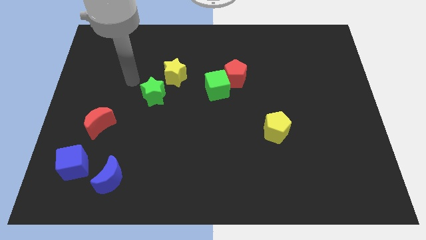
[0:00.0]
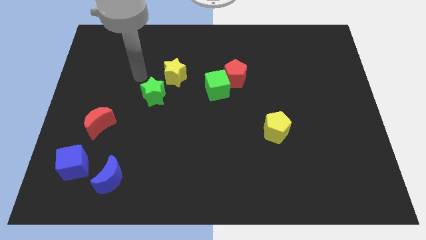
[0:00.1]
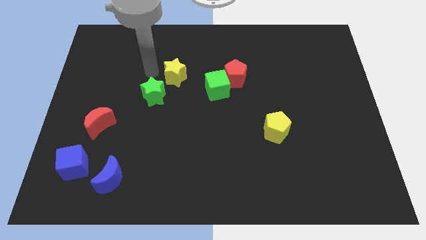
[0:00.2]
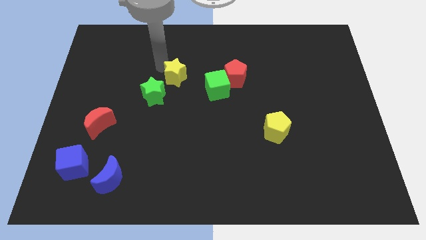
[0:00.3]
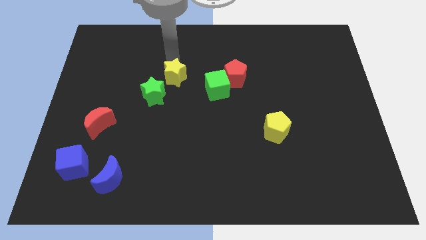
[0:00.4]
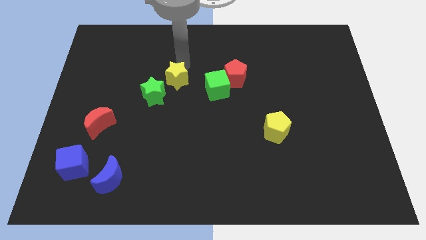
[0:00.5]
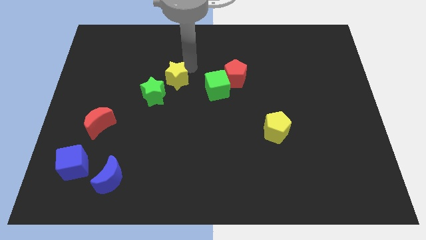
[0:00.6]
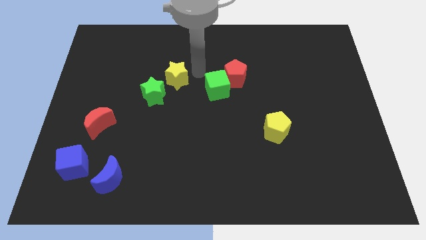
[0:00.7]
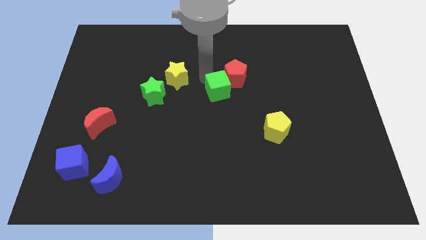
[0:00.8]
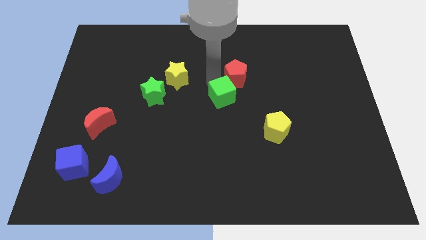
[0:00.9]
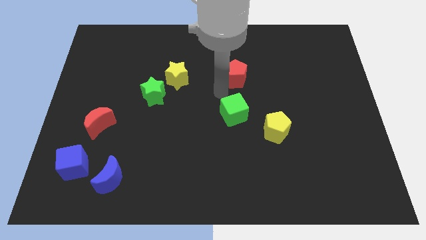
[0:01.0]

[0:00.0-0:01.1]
separate the red pentagon from the green cube

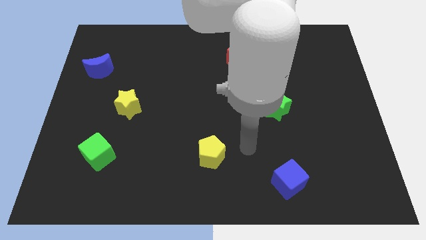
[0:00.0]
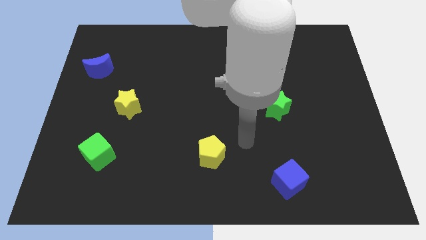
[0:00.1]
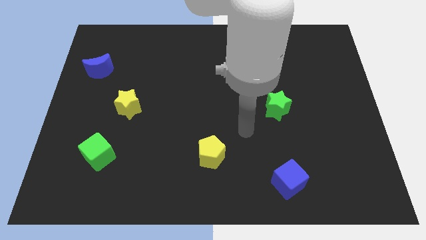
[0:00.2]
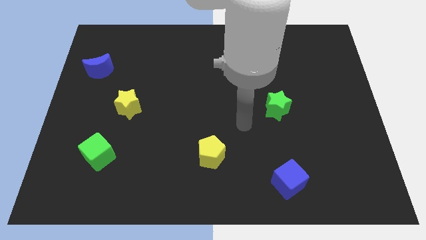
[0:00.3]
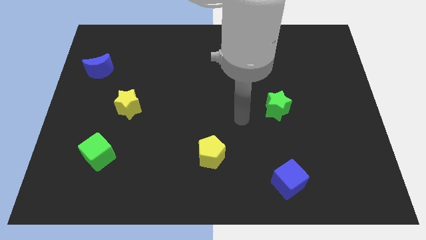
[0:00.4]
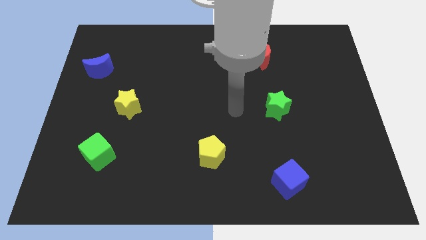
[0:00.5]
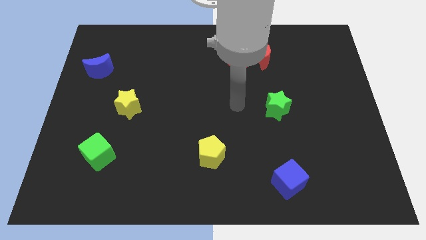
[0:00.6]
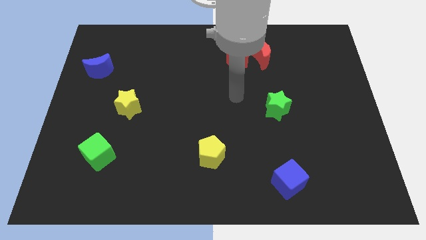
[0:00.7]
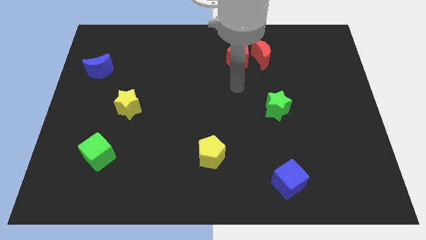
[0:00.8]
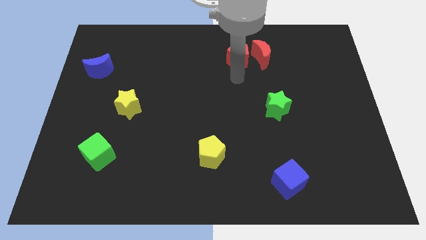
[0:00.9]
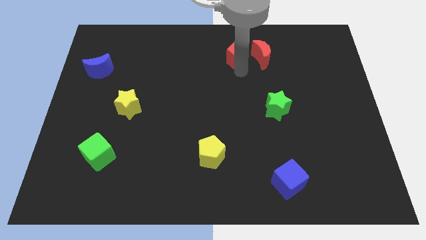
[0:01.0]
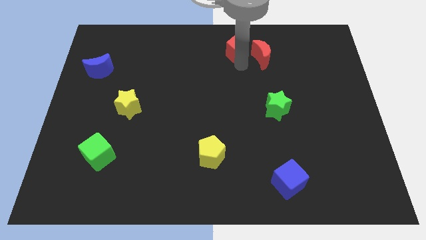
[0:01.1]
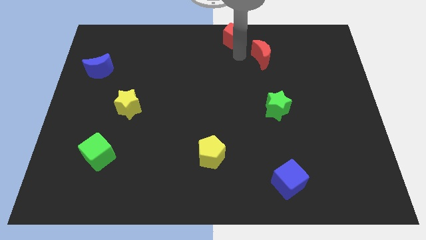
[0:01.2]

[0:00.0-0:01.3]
pull the red moon apart from the red pentagon

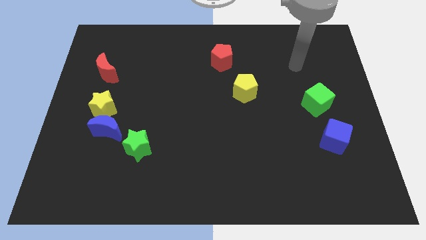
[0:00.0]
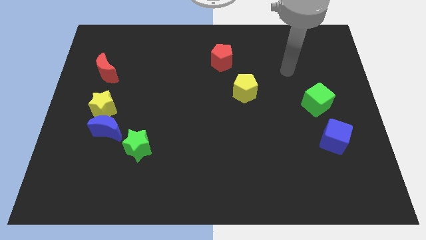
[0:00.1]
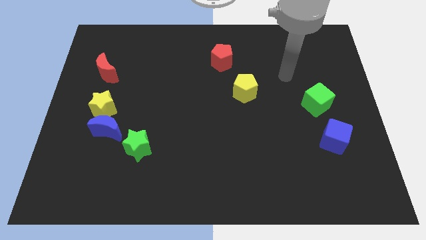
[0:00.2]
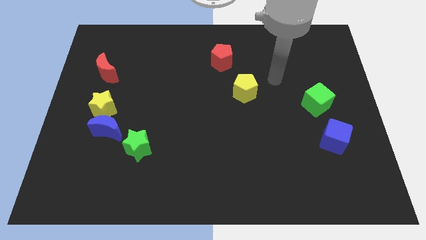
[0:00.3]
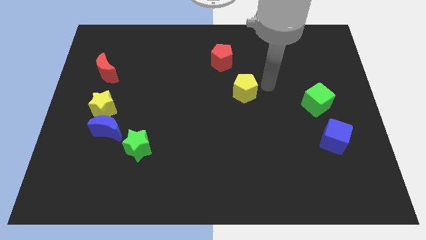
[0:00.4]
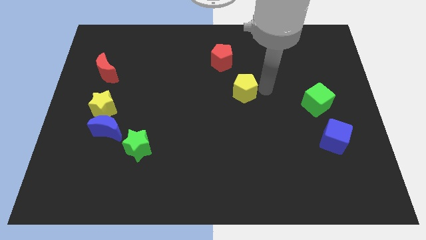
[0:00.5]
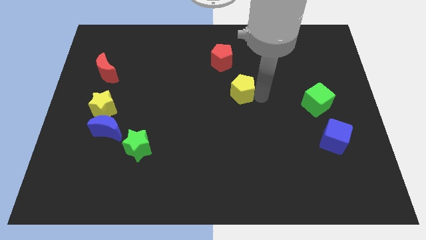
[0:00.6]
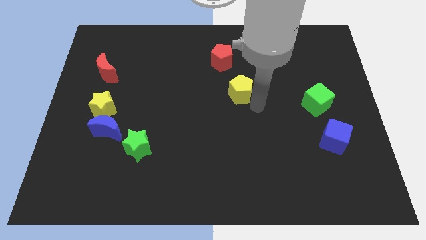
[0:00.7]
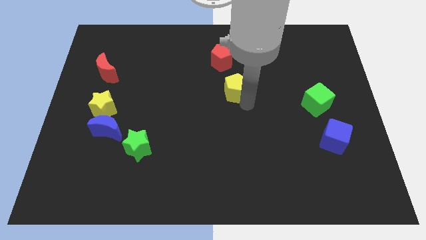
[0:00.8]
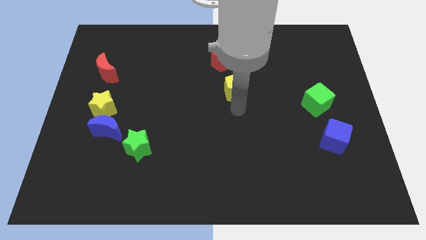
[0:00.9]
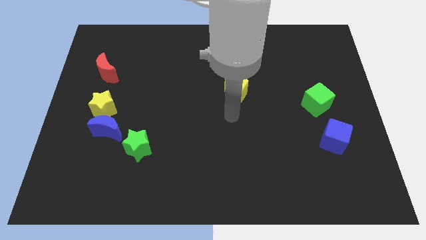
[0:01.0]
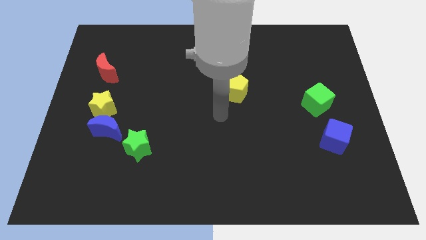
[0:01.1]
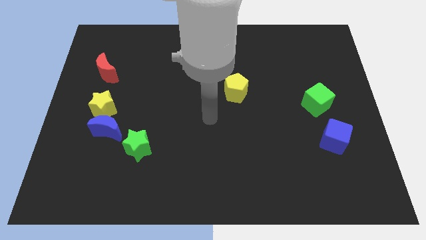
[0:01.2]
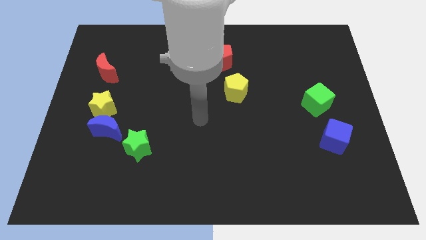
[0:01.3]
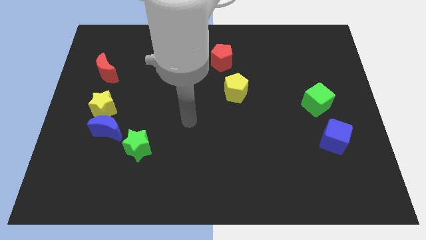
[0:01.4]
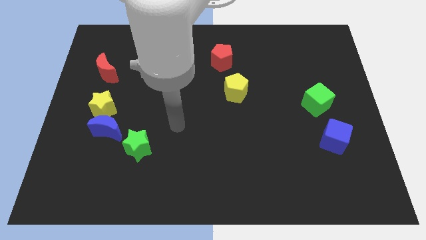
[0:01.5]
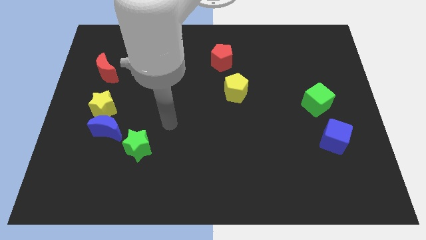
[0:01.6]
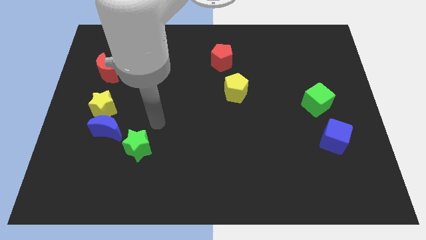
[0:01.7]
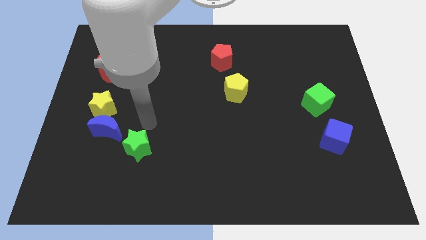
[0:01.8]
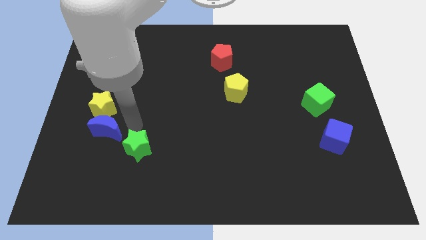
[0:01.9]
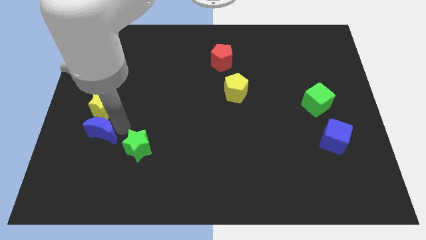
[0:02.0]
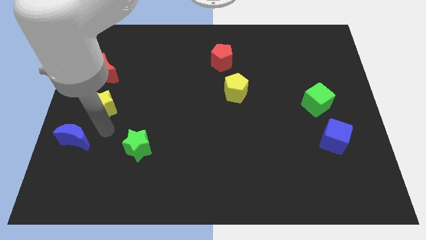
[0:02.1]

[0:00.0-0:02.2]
separate the yellow star from the blue moon

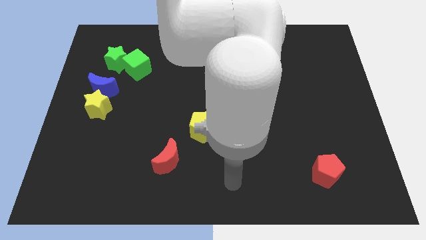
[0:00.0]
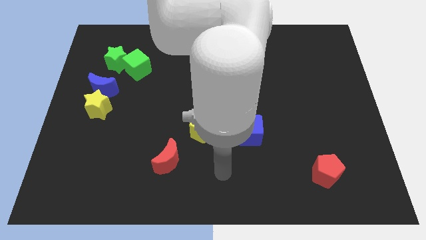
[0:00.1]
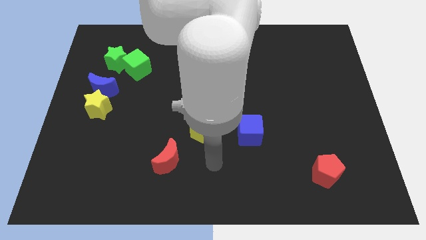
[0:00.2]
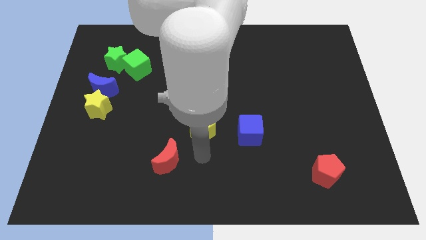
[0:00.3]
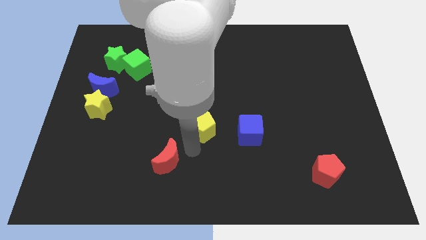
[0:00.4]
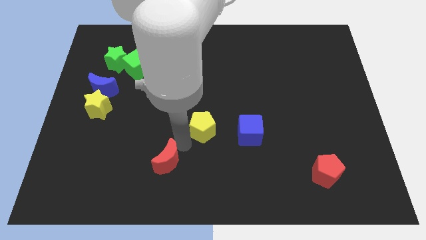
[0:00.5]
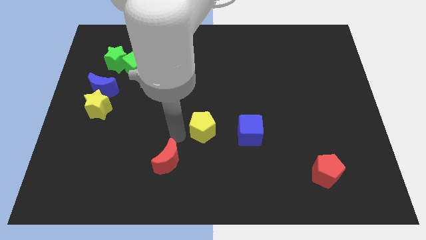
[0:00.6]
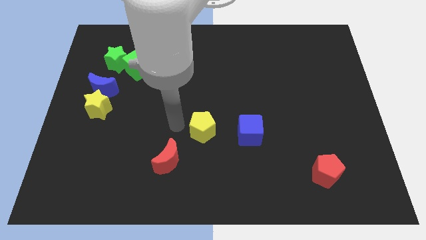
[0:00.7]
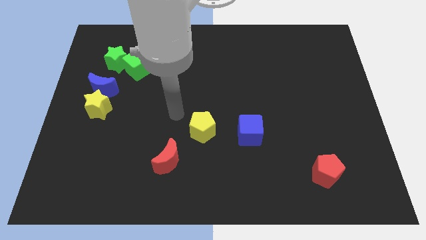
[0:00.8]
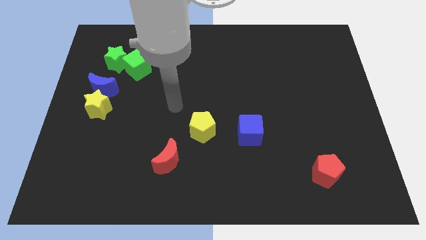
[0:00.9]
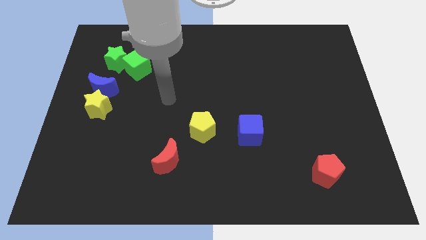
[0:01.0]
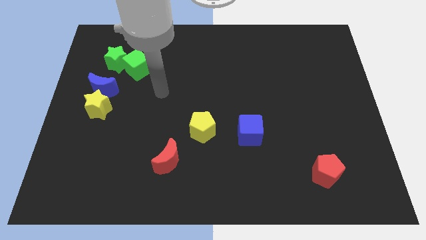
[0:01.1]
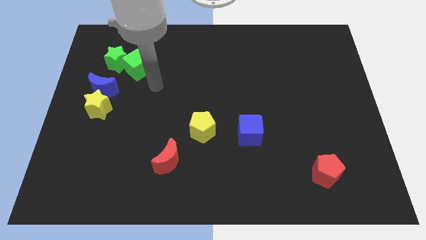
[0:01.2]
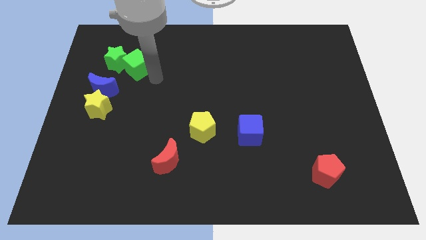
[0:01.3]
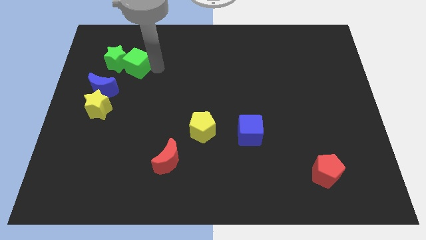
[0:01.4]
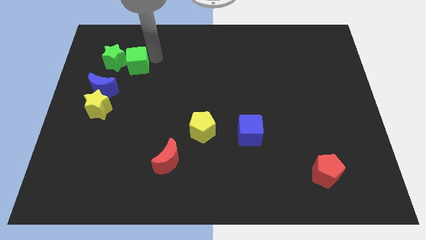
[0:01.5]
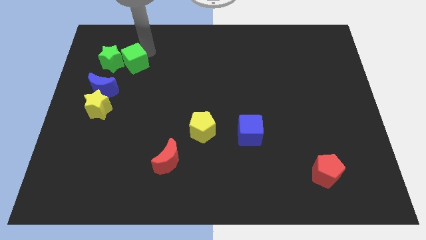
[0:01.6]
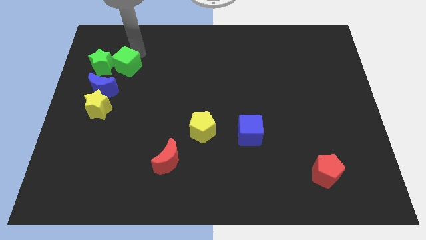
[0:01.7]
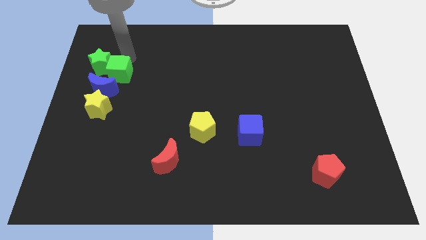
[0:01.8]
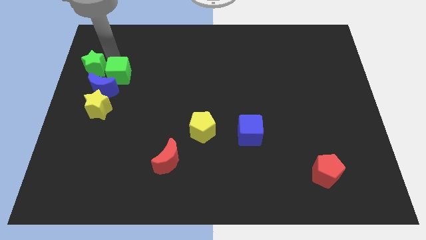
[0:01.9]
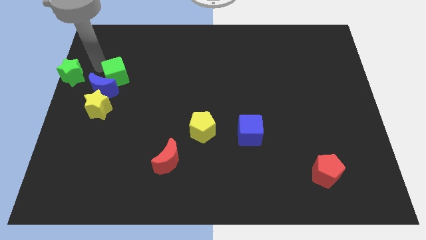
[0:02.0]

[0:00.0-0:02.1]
separate the green cube from the green star

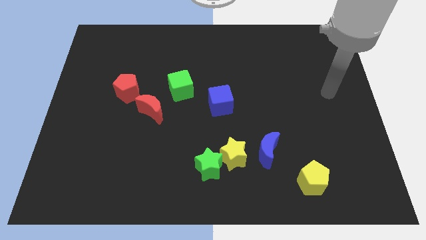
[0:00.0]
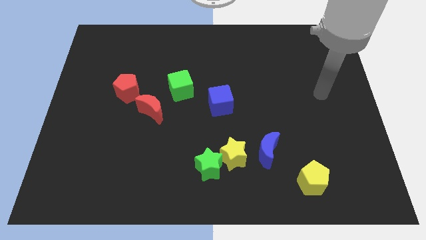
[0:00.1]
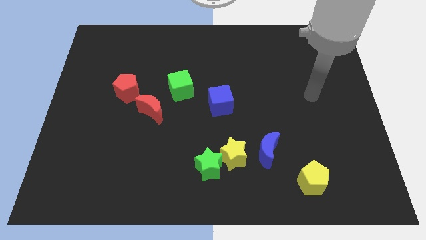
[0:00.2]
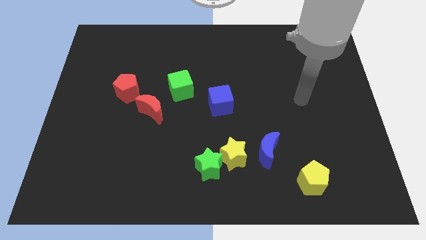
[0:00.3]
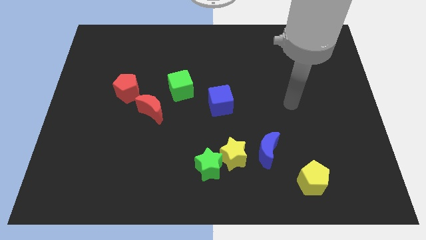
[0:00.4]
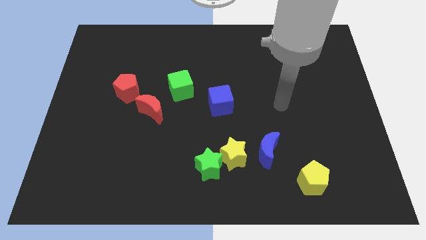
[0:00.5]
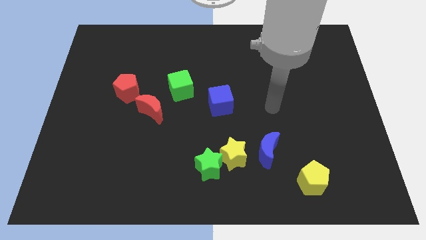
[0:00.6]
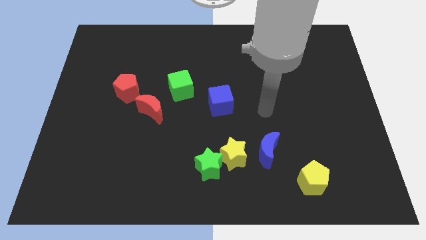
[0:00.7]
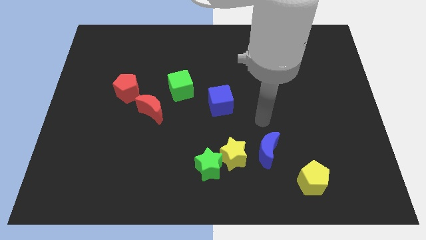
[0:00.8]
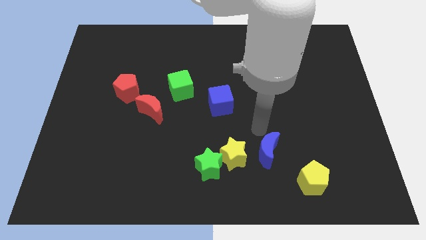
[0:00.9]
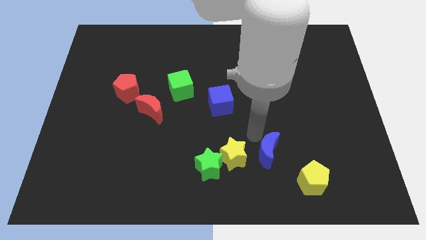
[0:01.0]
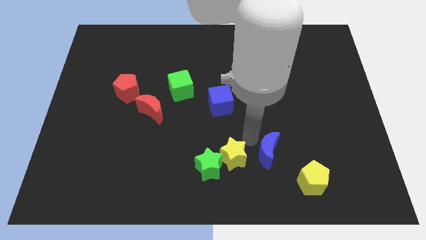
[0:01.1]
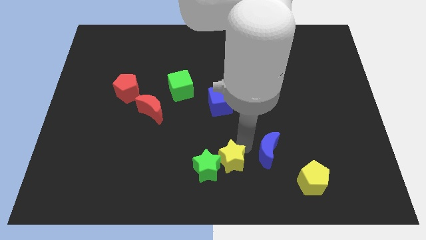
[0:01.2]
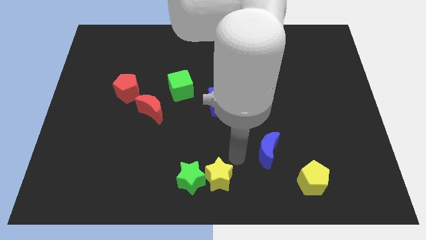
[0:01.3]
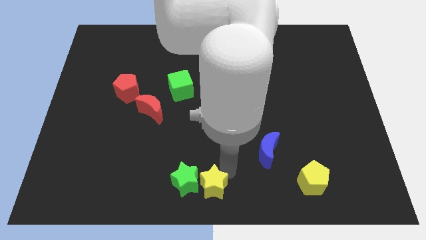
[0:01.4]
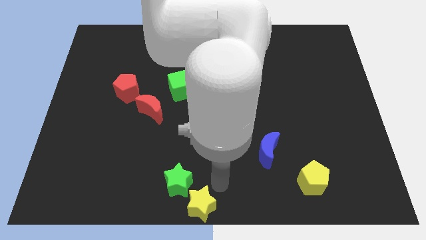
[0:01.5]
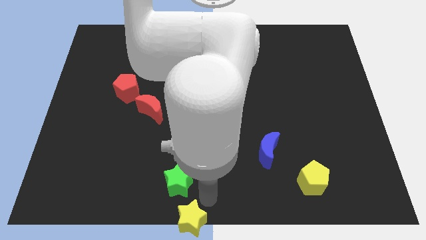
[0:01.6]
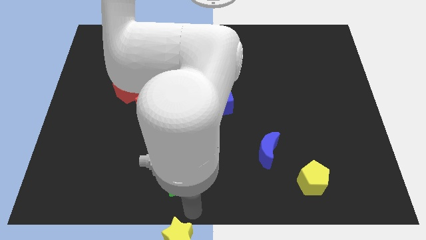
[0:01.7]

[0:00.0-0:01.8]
move the green star away from the yellow star

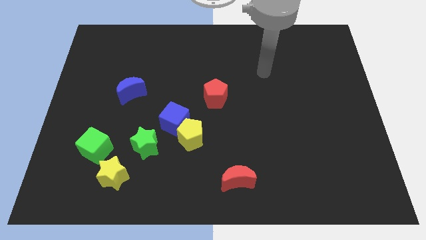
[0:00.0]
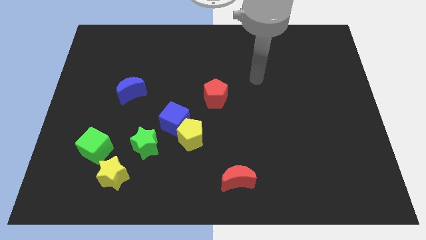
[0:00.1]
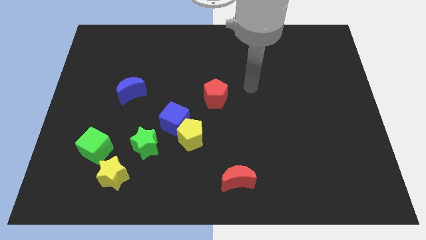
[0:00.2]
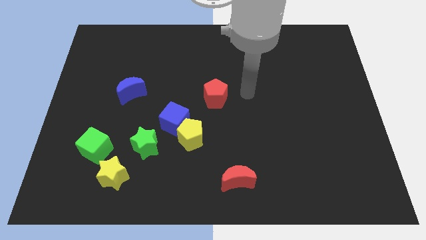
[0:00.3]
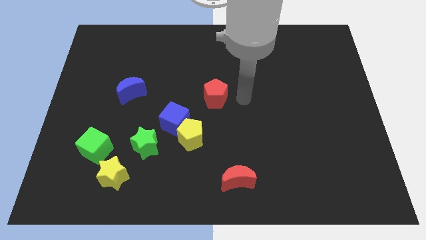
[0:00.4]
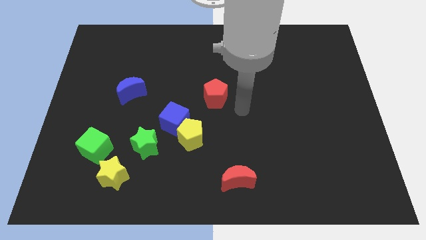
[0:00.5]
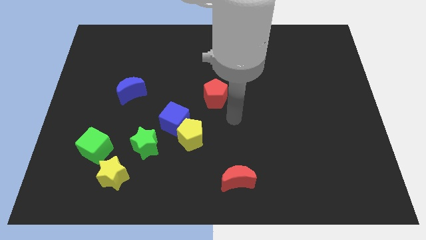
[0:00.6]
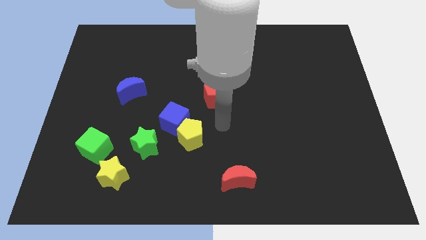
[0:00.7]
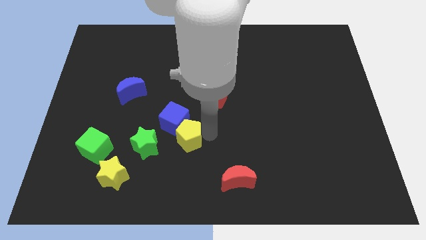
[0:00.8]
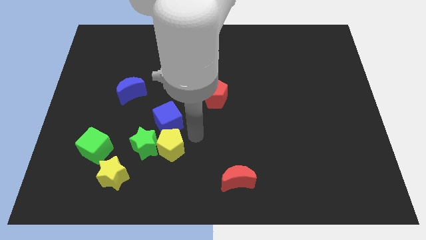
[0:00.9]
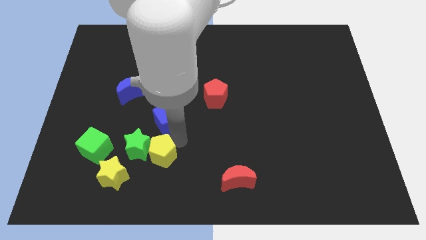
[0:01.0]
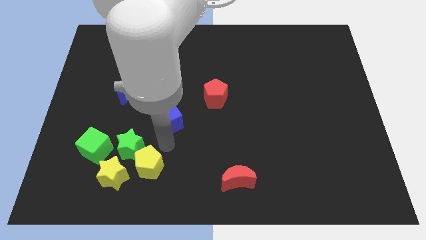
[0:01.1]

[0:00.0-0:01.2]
separate the blue cube from the yellow pentagon and green star
